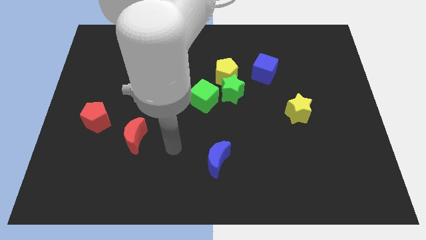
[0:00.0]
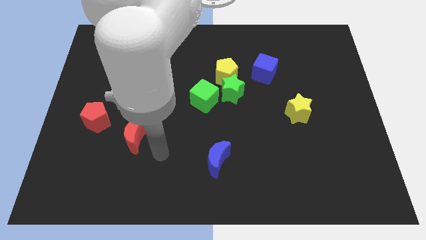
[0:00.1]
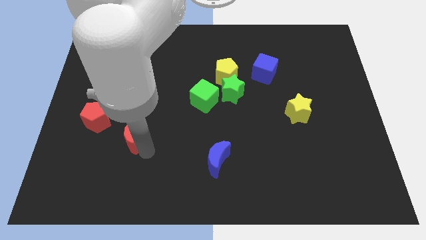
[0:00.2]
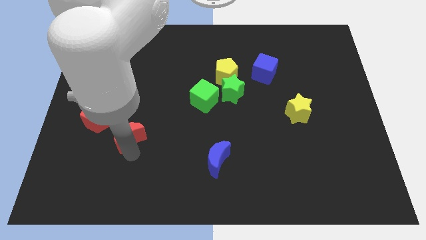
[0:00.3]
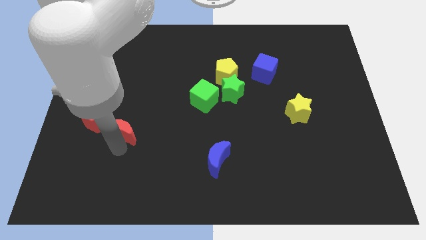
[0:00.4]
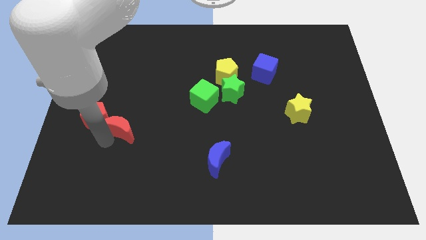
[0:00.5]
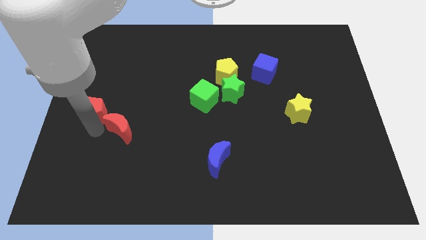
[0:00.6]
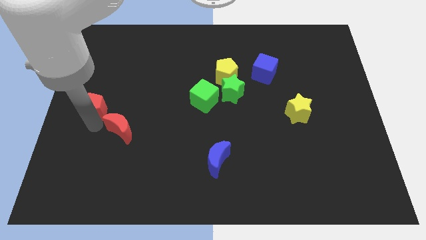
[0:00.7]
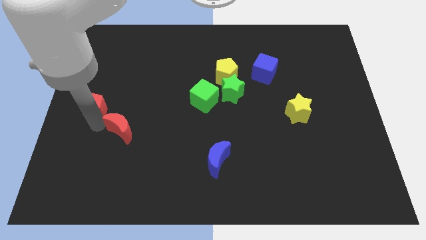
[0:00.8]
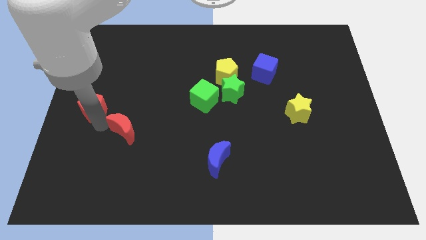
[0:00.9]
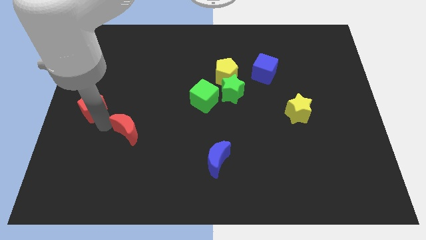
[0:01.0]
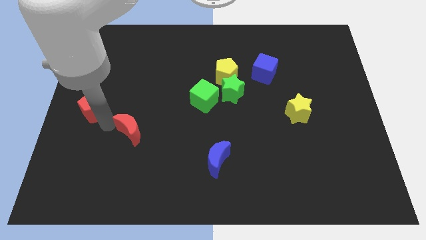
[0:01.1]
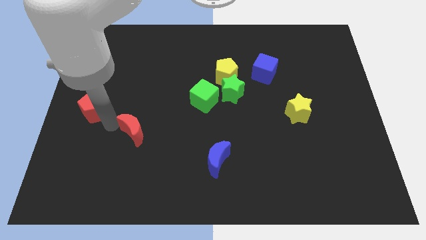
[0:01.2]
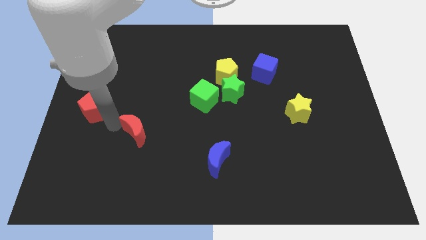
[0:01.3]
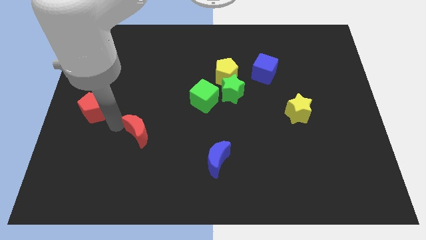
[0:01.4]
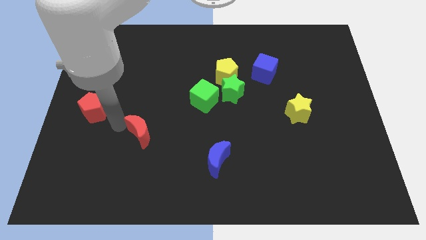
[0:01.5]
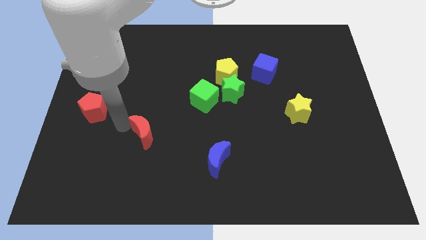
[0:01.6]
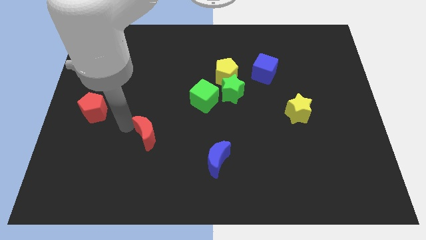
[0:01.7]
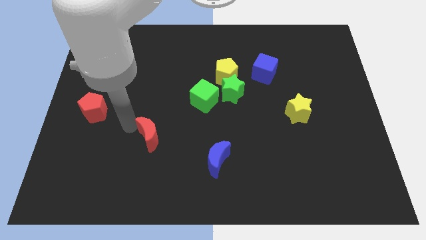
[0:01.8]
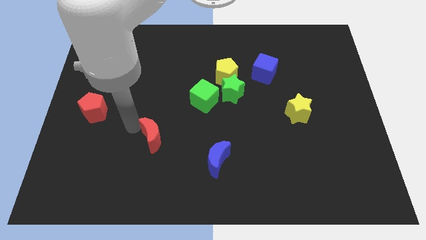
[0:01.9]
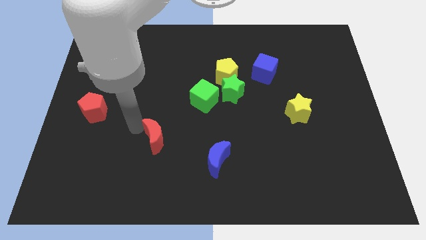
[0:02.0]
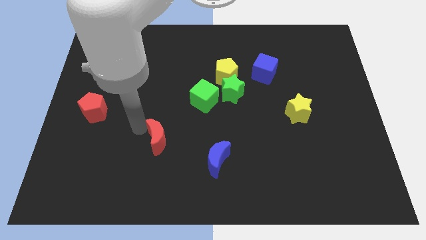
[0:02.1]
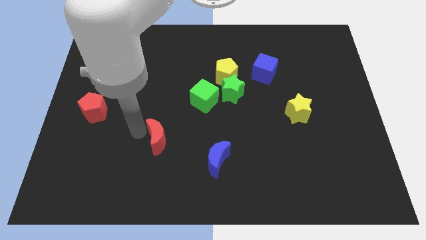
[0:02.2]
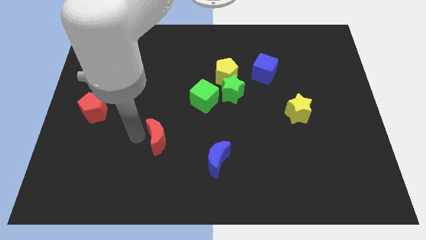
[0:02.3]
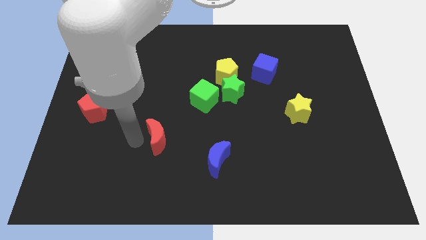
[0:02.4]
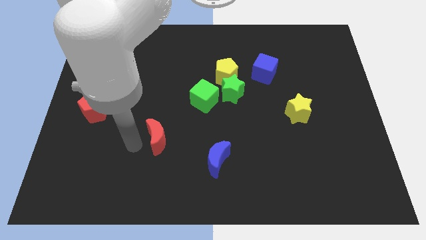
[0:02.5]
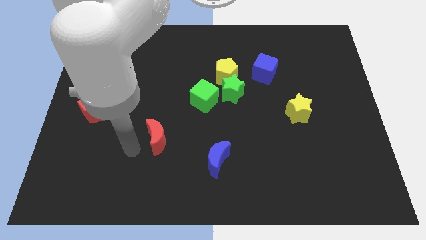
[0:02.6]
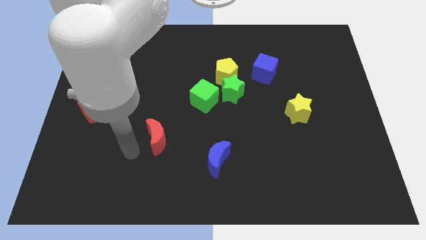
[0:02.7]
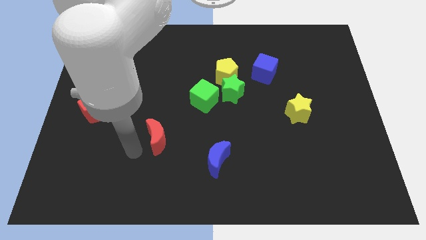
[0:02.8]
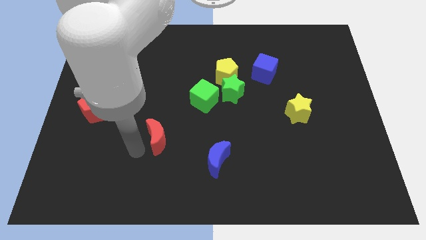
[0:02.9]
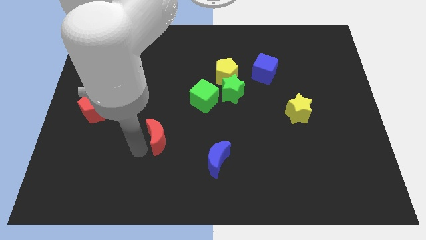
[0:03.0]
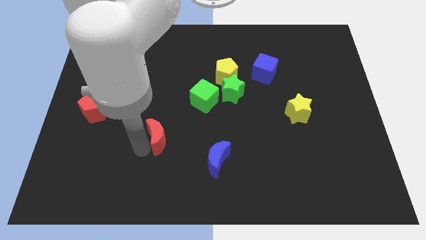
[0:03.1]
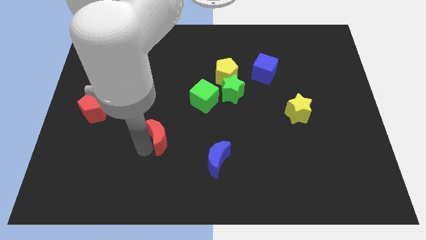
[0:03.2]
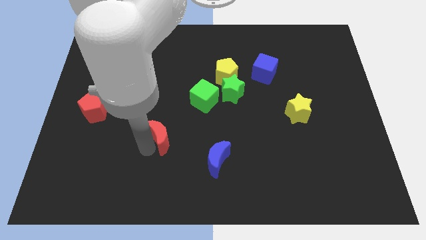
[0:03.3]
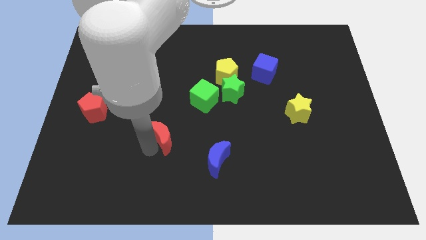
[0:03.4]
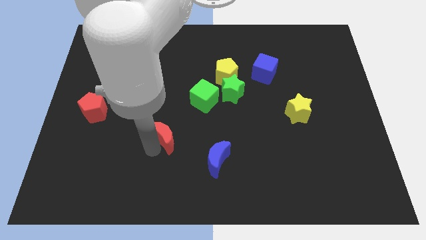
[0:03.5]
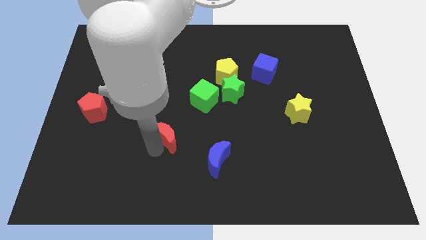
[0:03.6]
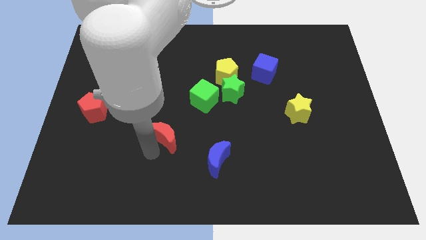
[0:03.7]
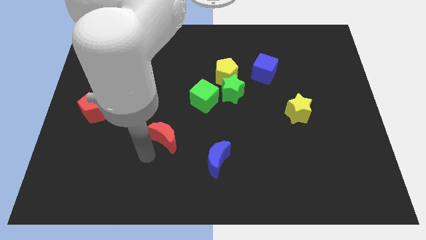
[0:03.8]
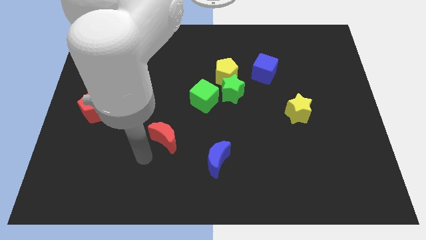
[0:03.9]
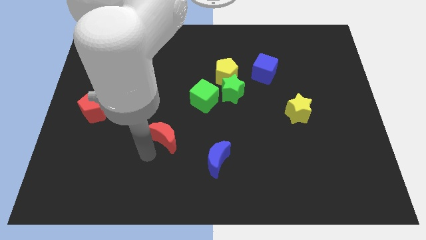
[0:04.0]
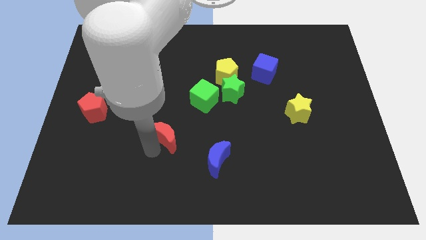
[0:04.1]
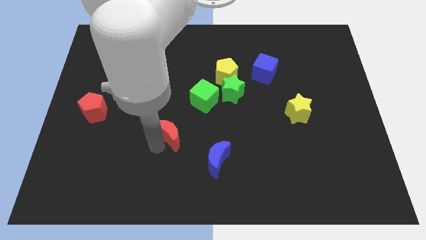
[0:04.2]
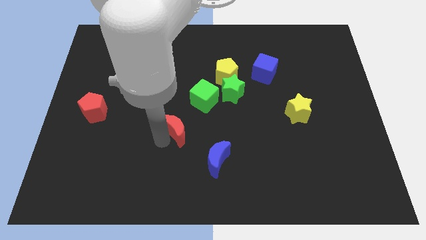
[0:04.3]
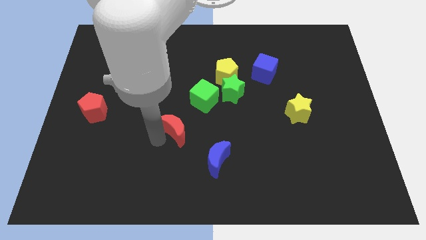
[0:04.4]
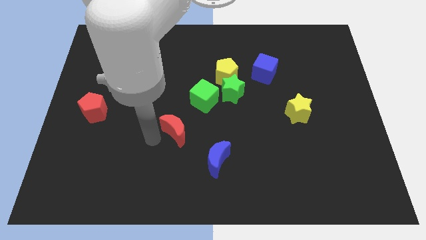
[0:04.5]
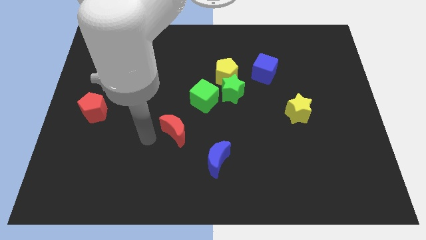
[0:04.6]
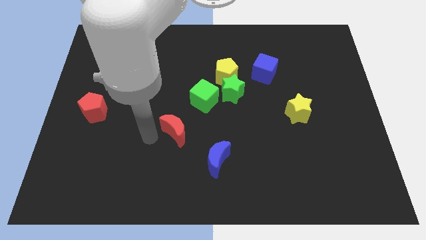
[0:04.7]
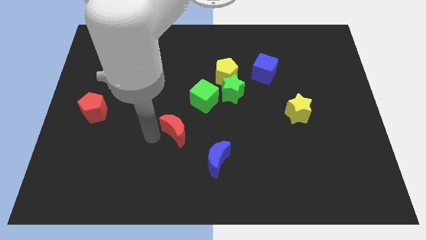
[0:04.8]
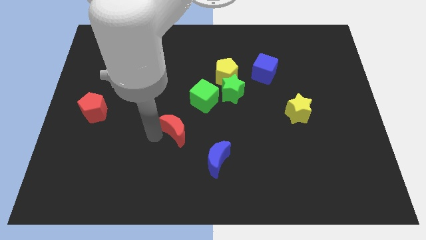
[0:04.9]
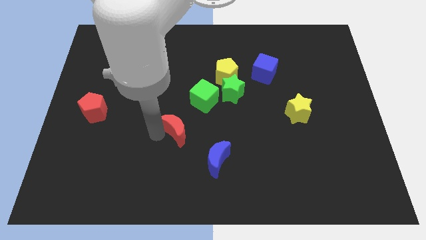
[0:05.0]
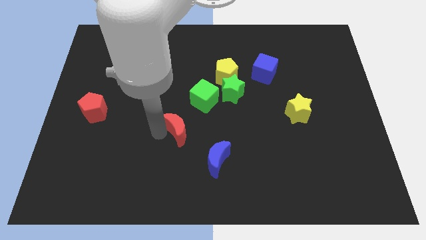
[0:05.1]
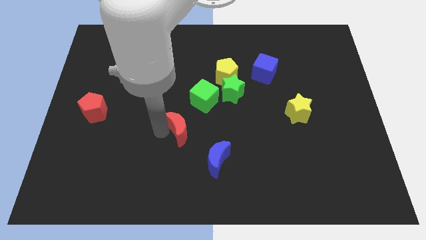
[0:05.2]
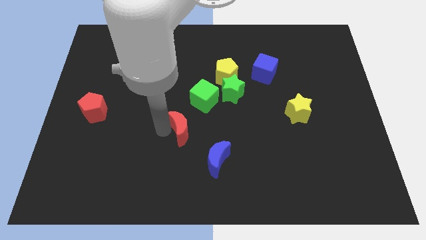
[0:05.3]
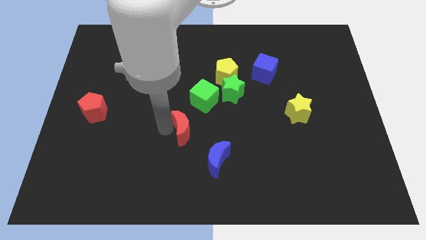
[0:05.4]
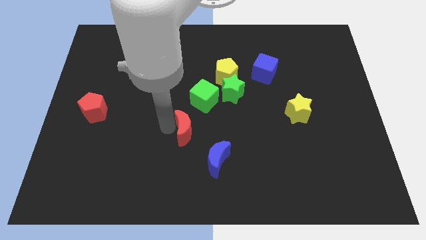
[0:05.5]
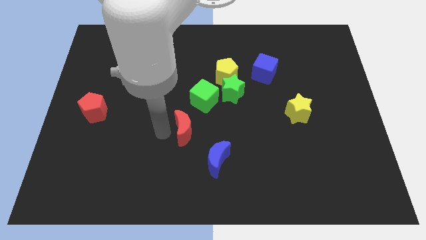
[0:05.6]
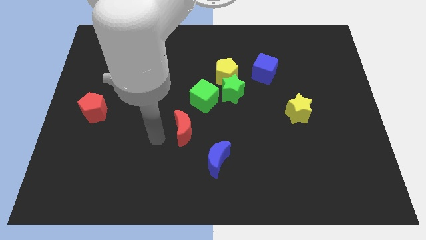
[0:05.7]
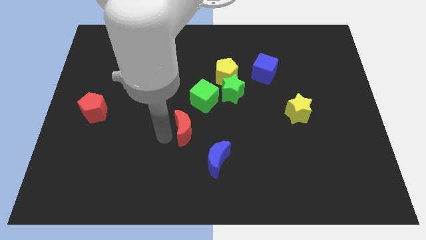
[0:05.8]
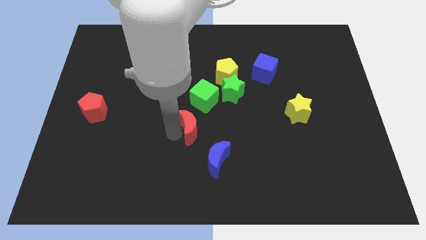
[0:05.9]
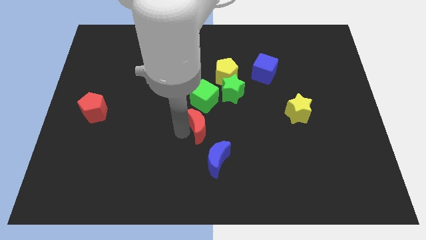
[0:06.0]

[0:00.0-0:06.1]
push the red moon to the top of the blue moon

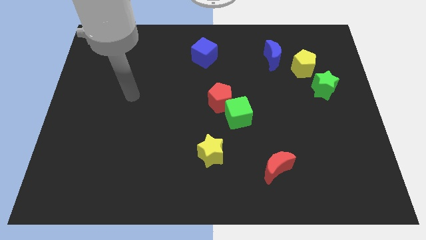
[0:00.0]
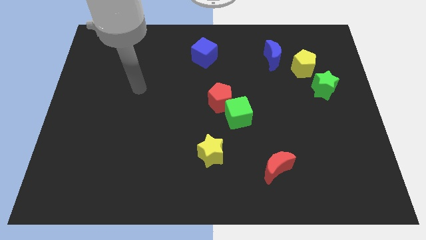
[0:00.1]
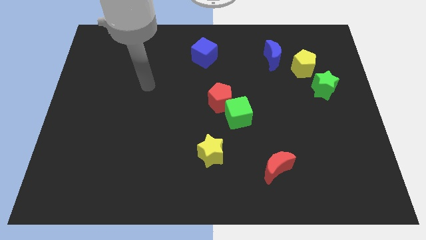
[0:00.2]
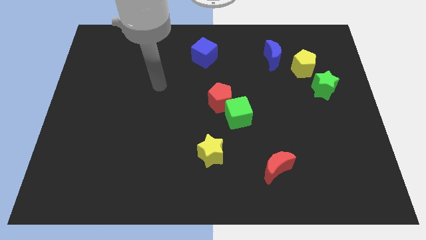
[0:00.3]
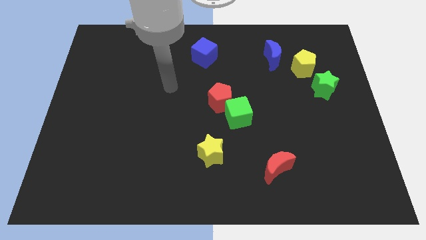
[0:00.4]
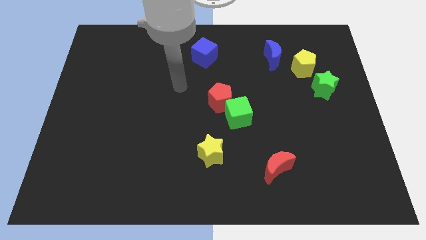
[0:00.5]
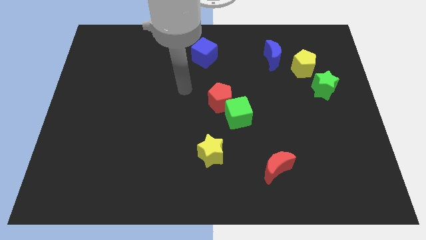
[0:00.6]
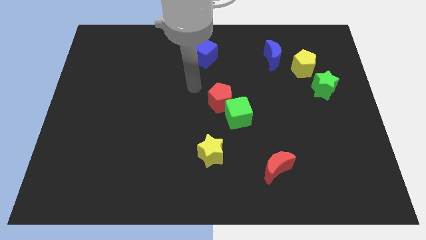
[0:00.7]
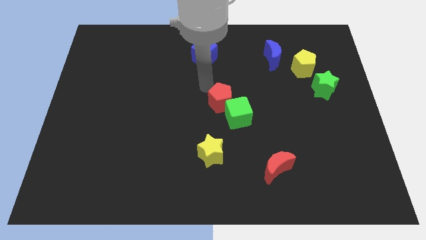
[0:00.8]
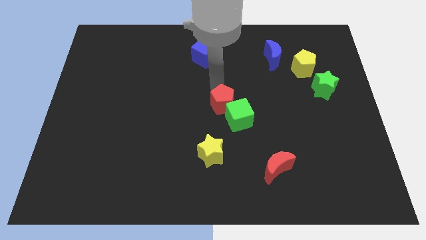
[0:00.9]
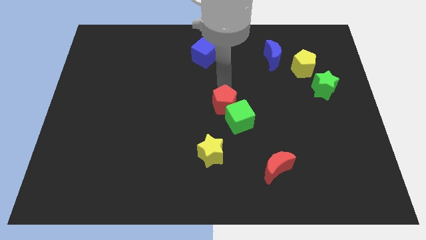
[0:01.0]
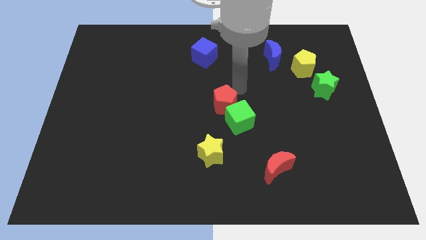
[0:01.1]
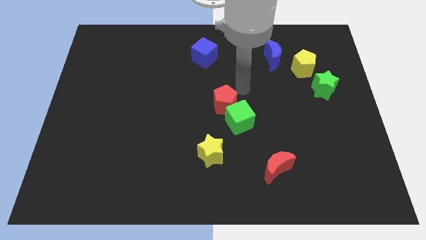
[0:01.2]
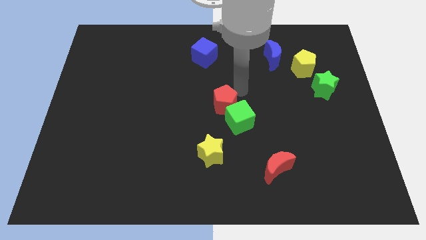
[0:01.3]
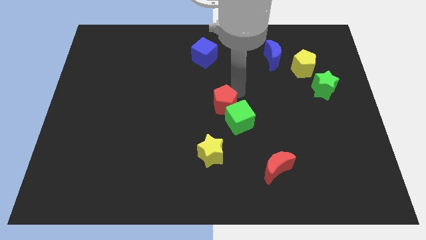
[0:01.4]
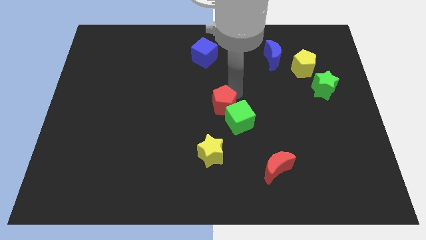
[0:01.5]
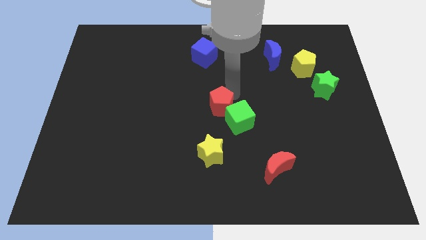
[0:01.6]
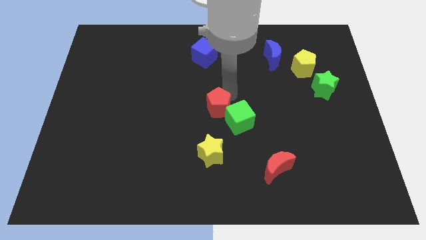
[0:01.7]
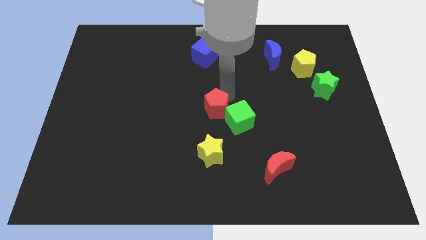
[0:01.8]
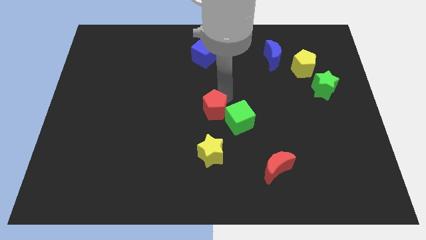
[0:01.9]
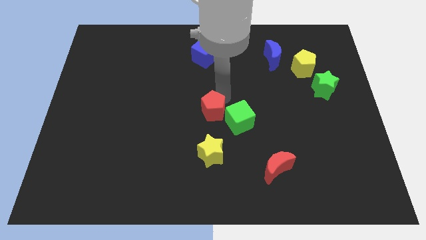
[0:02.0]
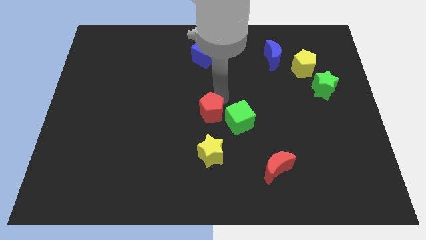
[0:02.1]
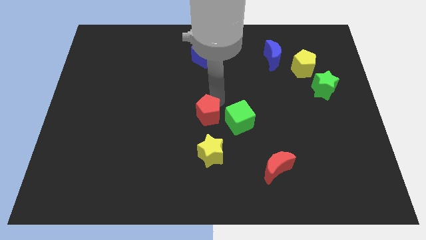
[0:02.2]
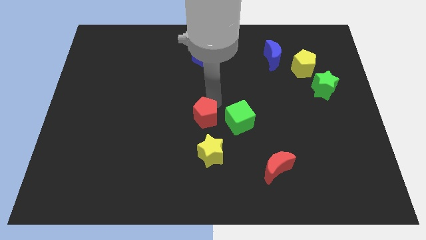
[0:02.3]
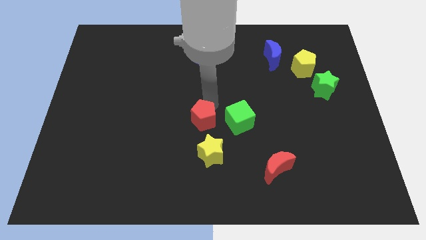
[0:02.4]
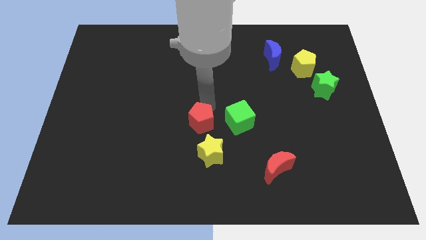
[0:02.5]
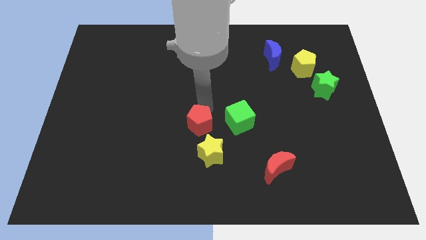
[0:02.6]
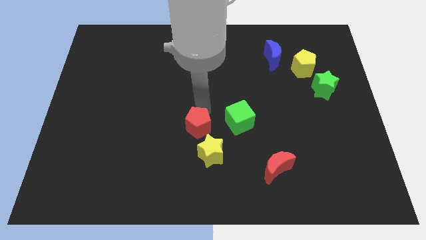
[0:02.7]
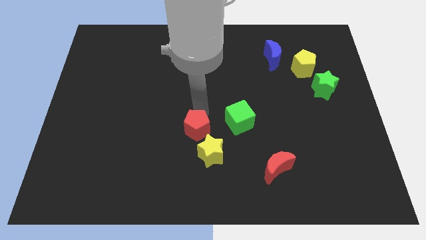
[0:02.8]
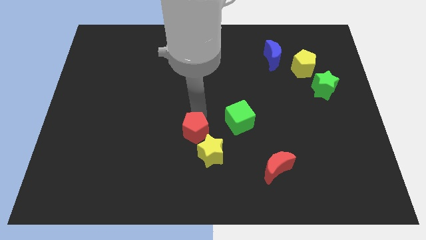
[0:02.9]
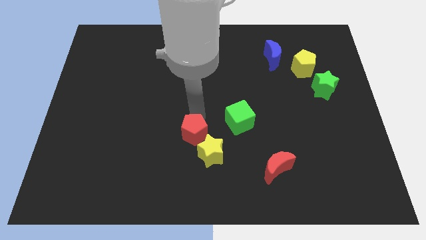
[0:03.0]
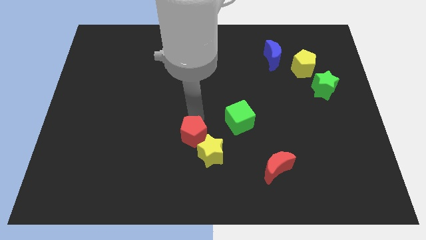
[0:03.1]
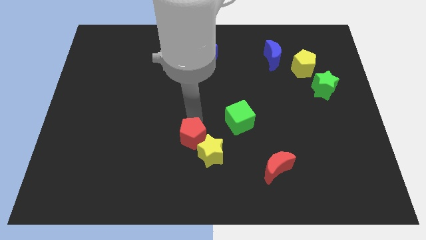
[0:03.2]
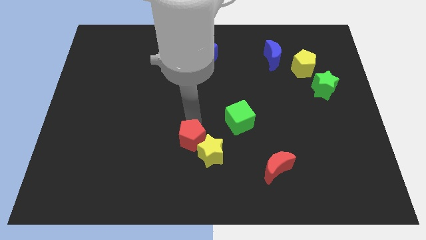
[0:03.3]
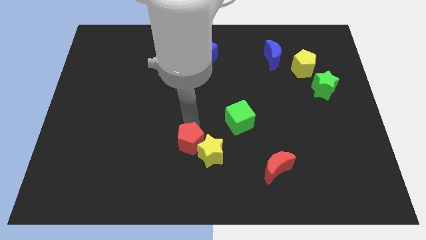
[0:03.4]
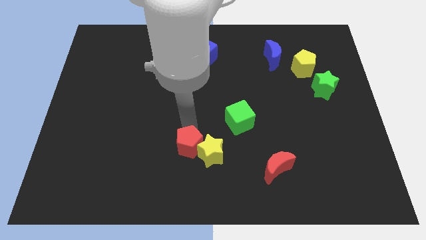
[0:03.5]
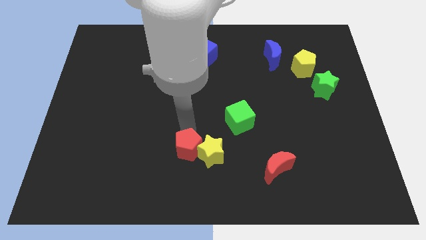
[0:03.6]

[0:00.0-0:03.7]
push the red pentagon to the bottom left of the yellow star
